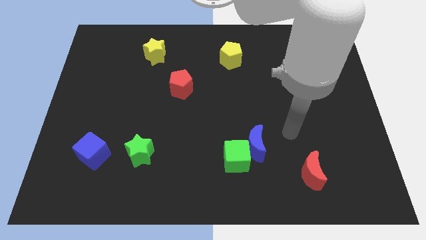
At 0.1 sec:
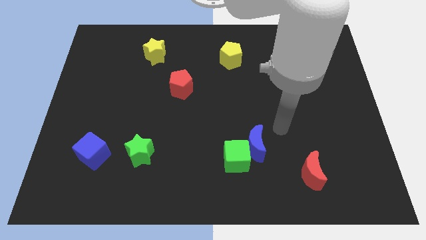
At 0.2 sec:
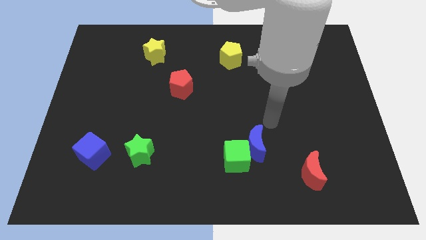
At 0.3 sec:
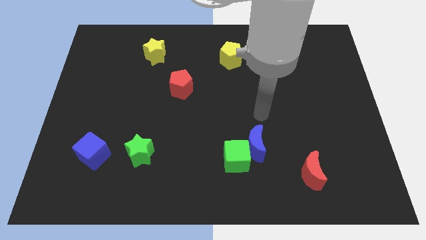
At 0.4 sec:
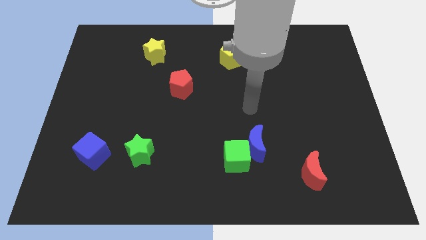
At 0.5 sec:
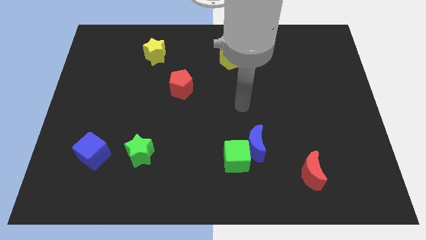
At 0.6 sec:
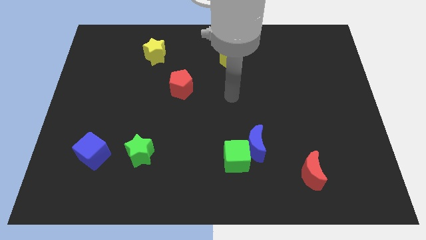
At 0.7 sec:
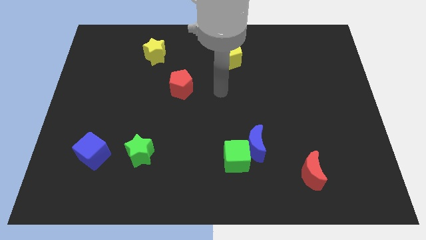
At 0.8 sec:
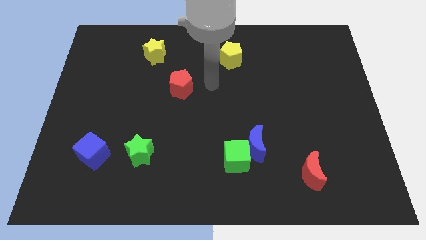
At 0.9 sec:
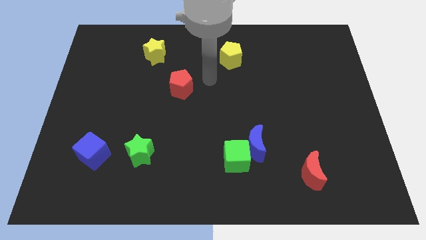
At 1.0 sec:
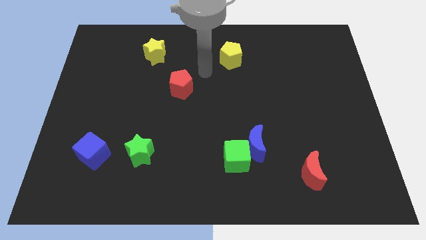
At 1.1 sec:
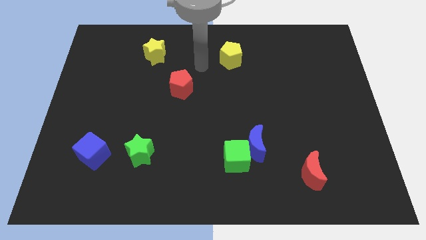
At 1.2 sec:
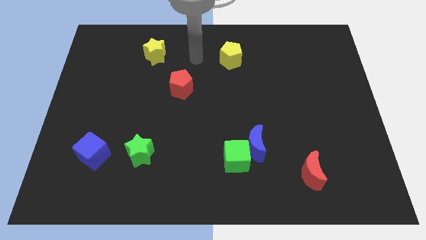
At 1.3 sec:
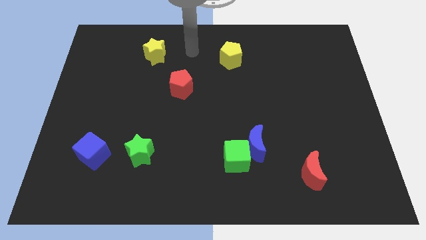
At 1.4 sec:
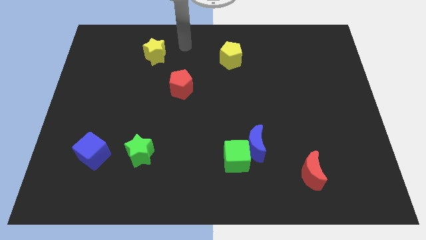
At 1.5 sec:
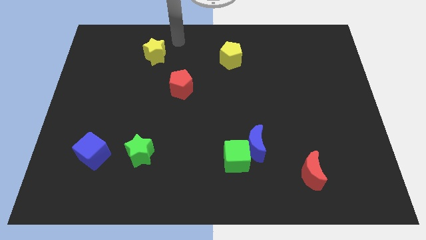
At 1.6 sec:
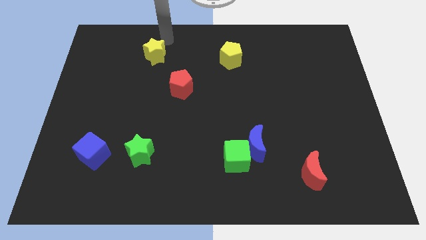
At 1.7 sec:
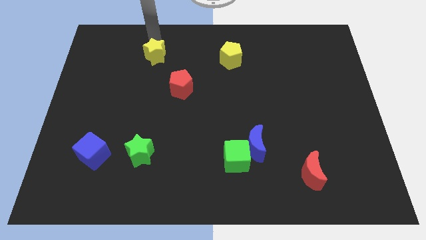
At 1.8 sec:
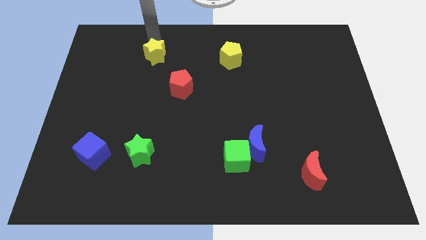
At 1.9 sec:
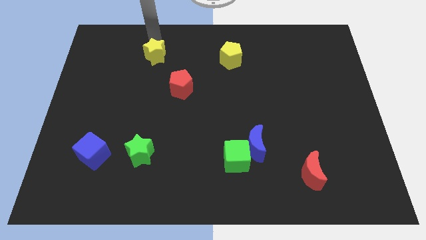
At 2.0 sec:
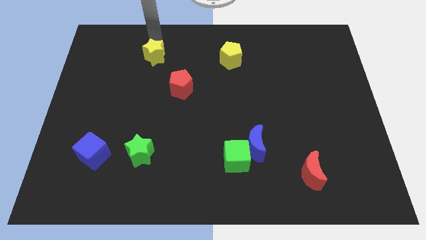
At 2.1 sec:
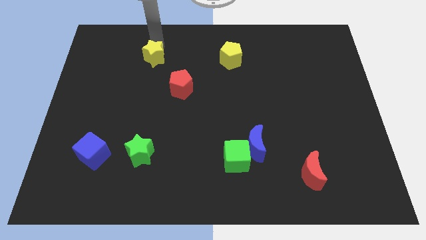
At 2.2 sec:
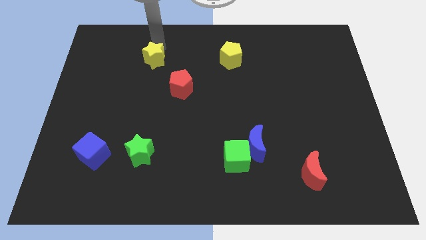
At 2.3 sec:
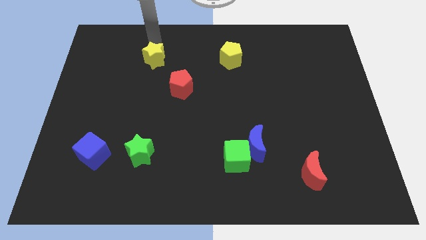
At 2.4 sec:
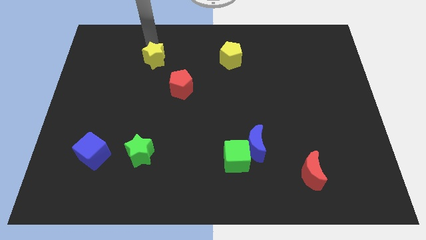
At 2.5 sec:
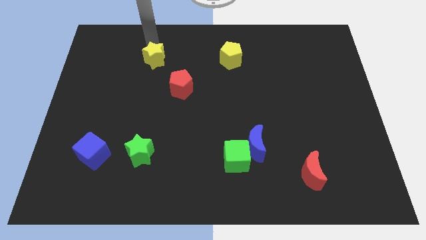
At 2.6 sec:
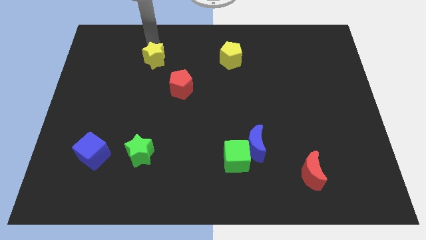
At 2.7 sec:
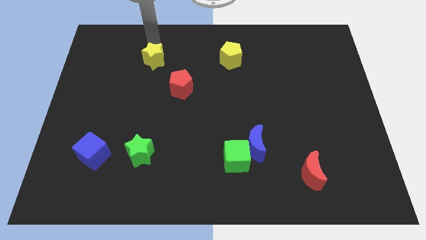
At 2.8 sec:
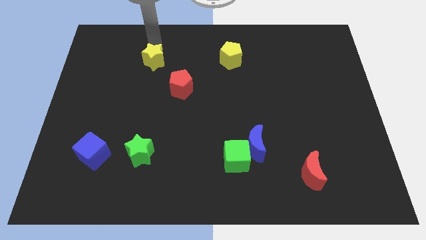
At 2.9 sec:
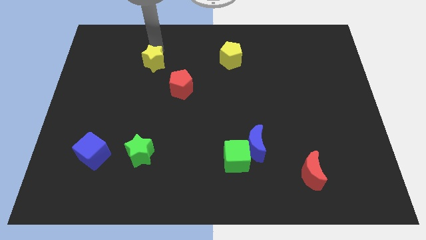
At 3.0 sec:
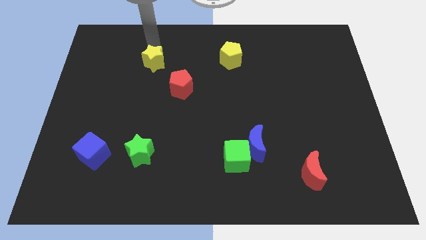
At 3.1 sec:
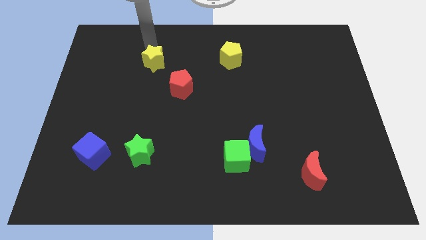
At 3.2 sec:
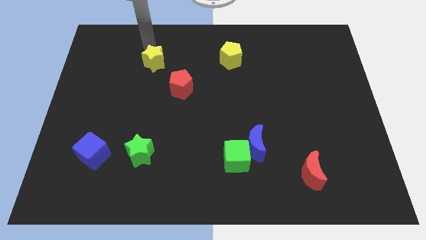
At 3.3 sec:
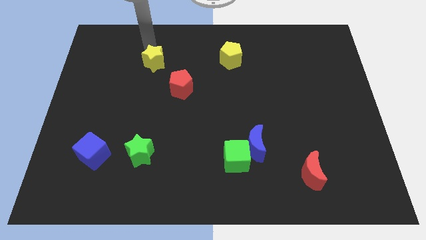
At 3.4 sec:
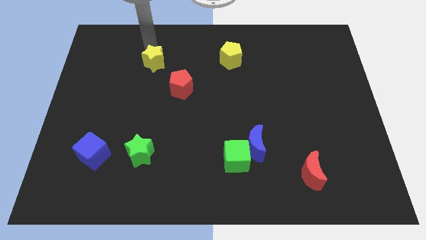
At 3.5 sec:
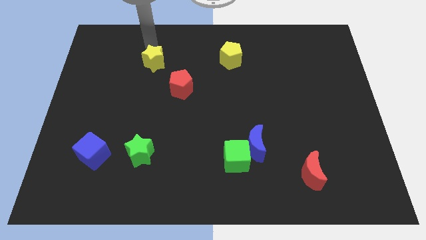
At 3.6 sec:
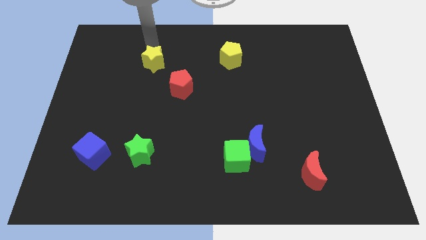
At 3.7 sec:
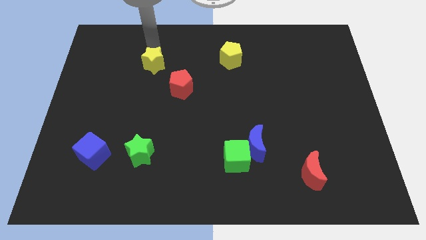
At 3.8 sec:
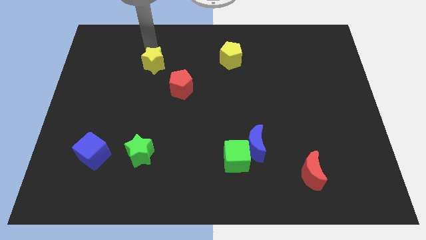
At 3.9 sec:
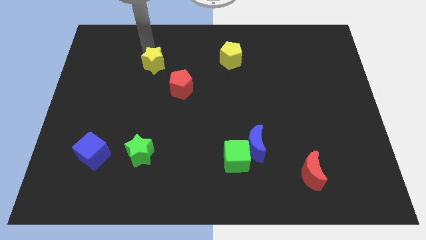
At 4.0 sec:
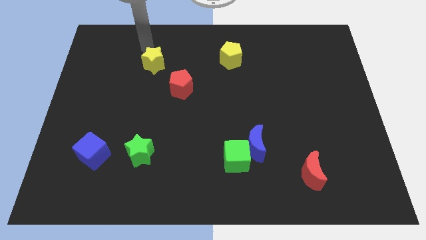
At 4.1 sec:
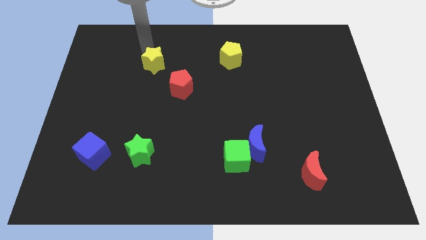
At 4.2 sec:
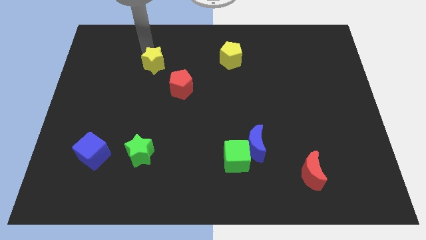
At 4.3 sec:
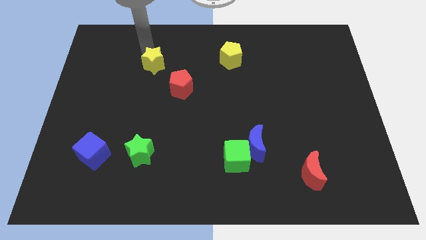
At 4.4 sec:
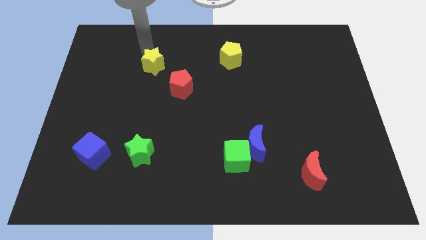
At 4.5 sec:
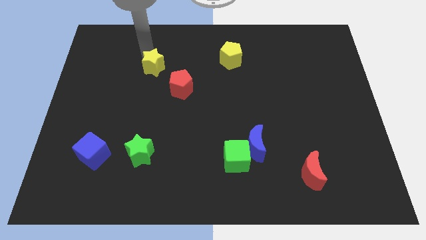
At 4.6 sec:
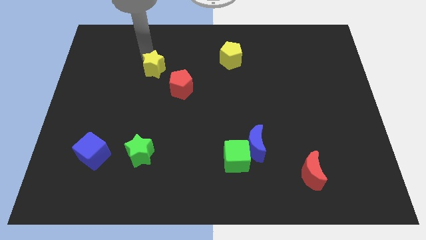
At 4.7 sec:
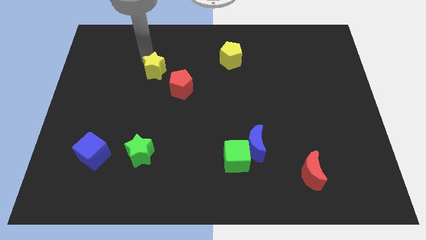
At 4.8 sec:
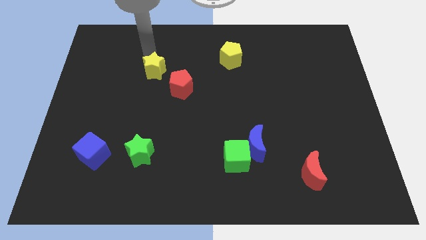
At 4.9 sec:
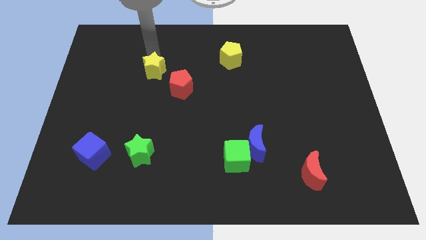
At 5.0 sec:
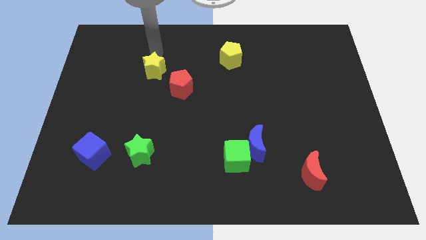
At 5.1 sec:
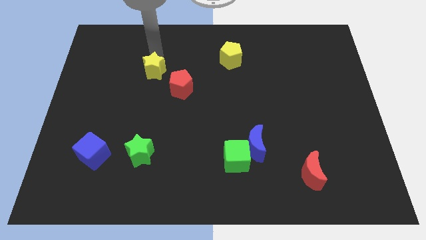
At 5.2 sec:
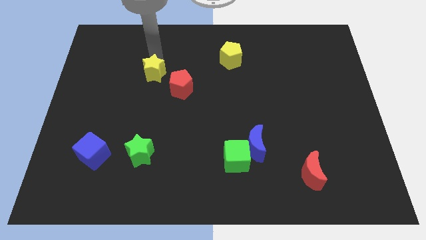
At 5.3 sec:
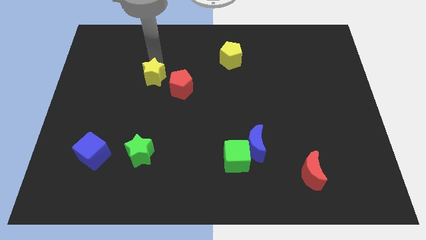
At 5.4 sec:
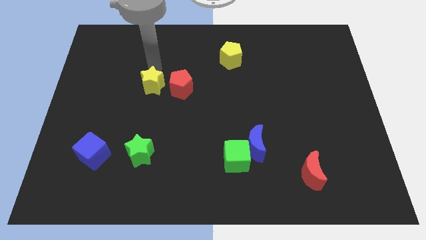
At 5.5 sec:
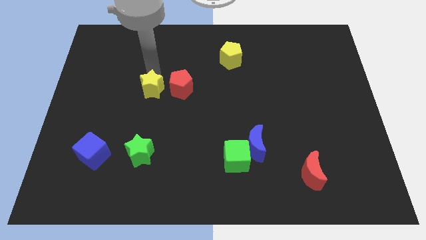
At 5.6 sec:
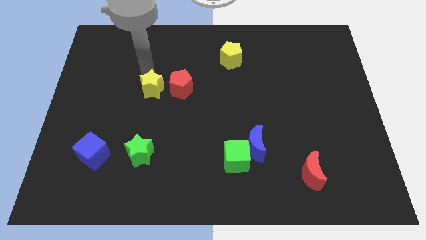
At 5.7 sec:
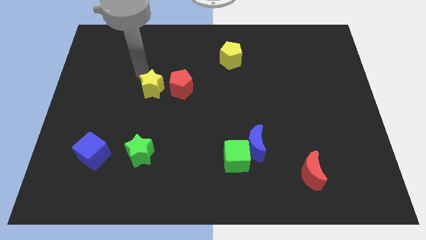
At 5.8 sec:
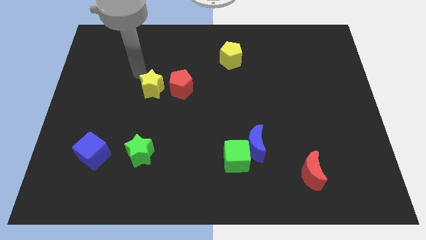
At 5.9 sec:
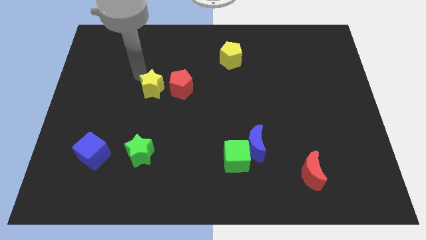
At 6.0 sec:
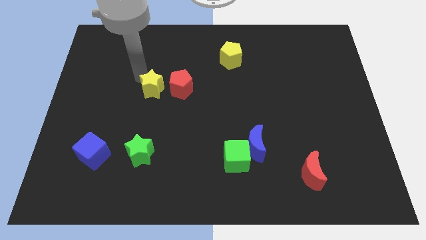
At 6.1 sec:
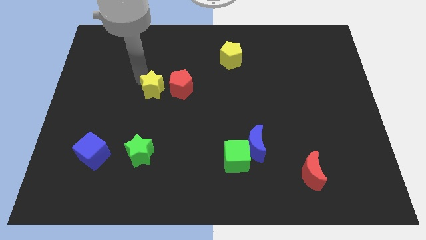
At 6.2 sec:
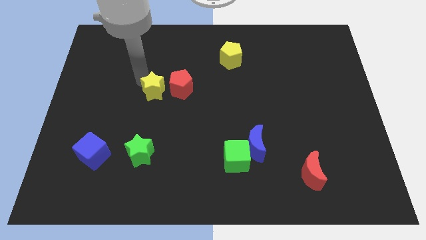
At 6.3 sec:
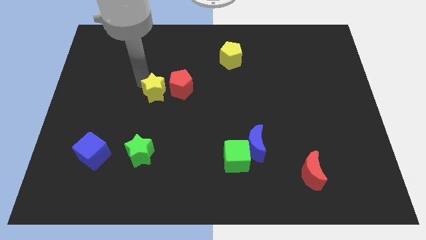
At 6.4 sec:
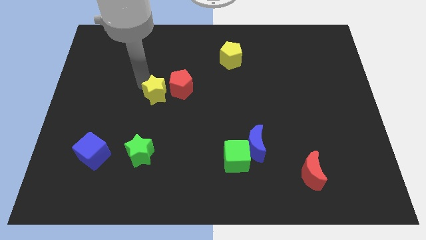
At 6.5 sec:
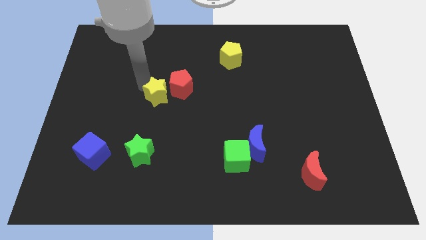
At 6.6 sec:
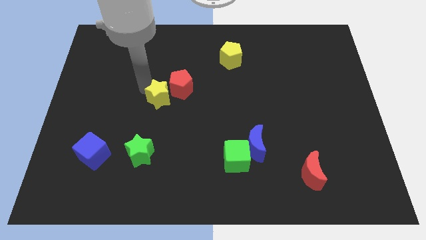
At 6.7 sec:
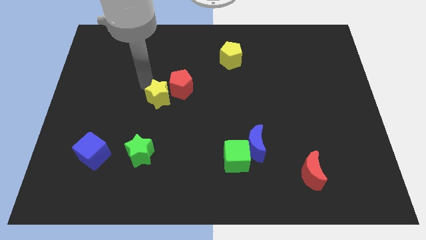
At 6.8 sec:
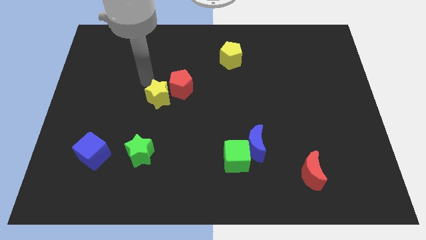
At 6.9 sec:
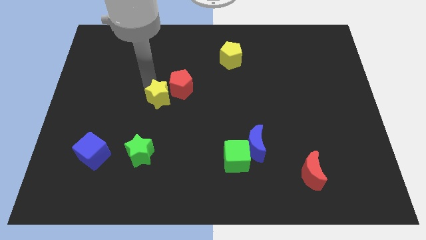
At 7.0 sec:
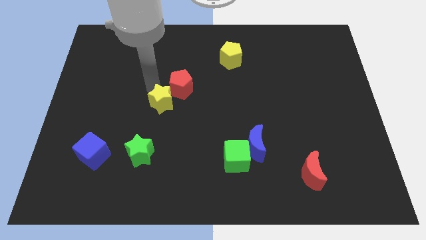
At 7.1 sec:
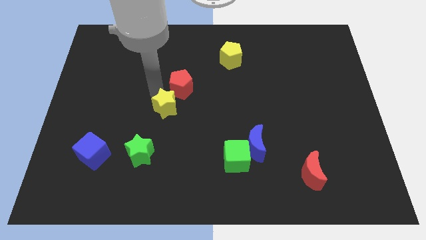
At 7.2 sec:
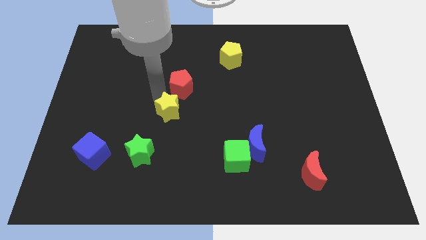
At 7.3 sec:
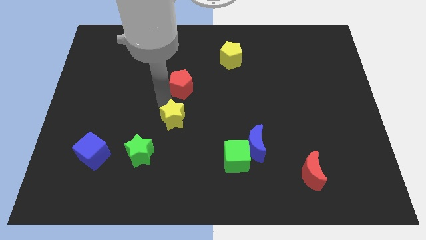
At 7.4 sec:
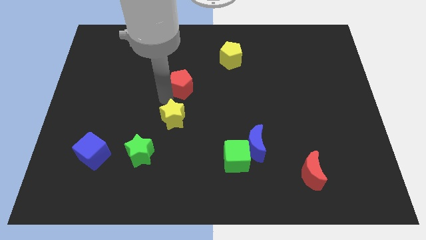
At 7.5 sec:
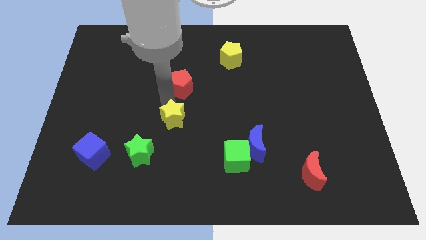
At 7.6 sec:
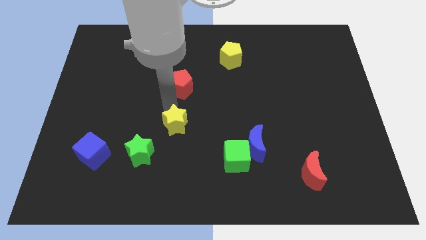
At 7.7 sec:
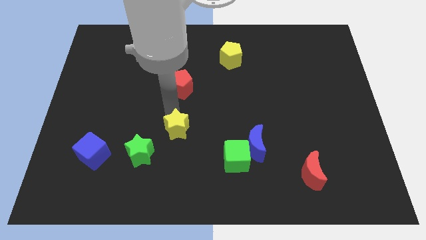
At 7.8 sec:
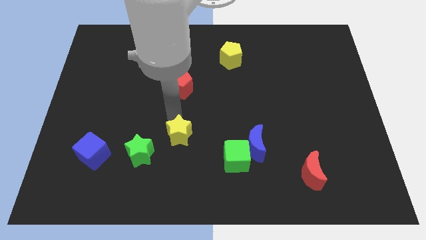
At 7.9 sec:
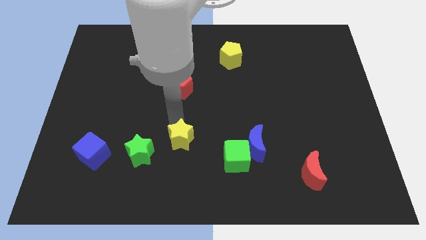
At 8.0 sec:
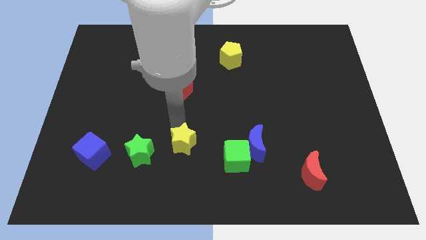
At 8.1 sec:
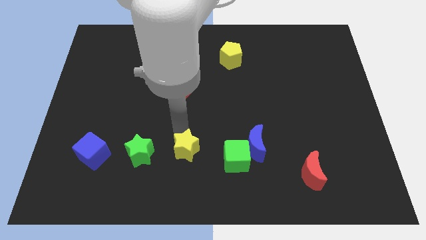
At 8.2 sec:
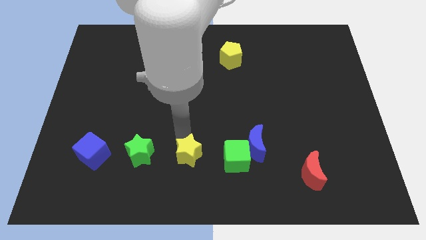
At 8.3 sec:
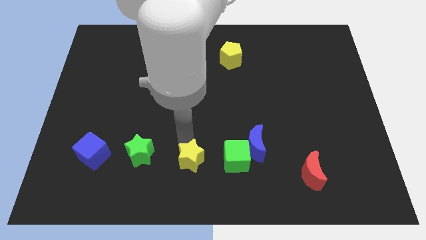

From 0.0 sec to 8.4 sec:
move the yellow star to the bottom side
